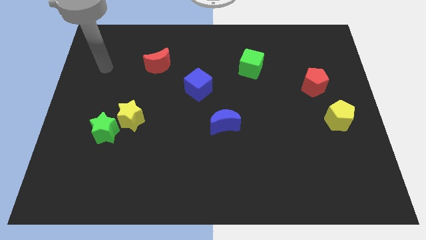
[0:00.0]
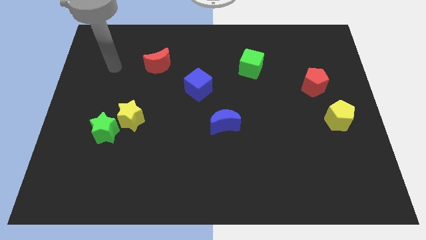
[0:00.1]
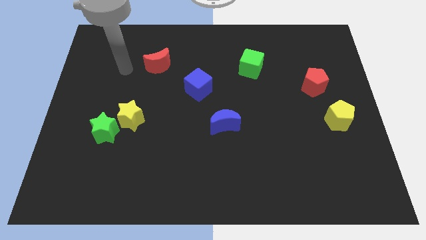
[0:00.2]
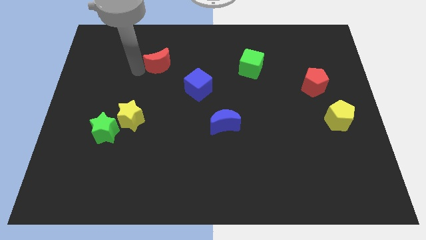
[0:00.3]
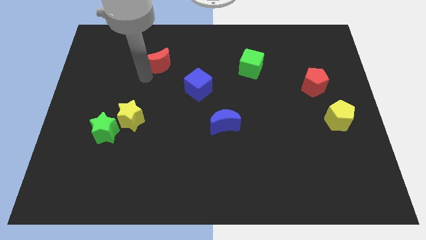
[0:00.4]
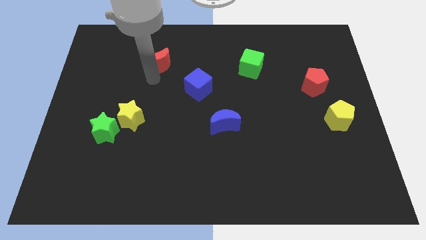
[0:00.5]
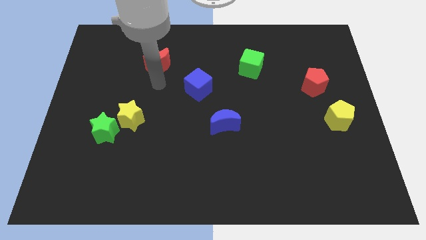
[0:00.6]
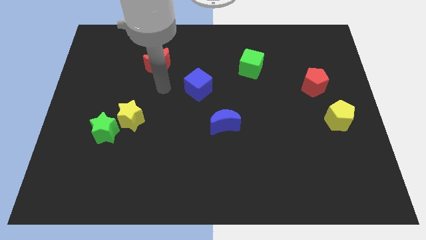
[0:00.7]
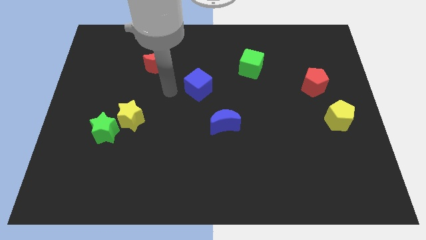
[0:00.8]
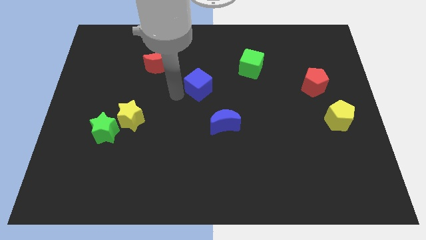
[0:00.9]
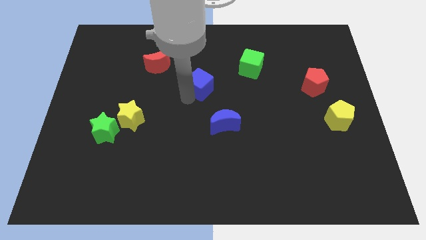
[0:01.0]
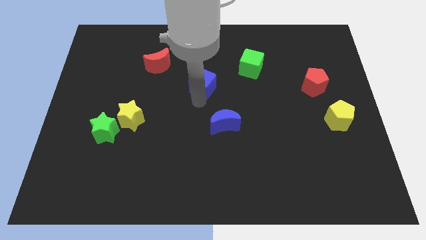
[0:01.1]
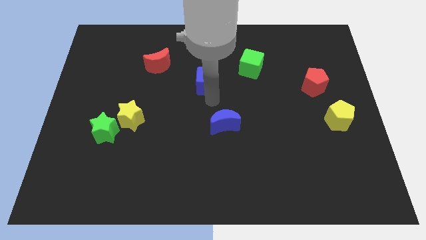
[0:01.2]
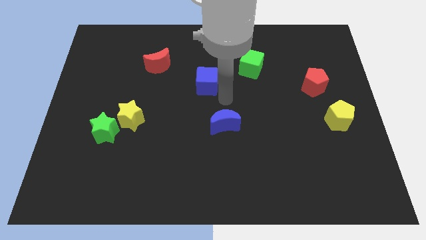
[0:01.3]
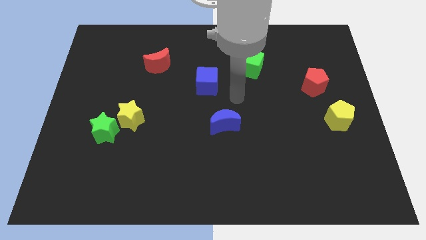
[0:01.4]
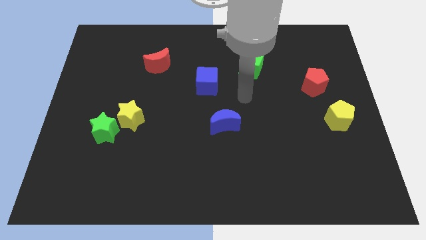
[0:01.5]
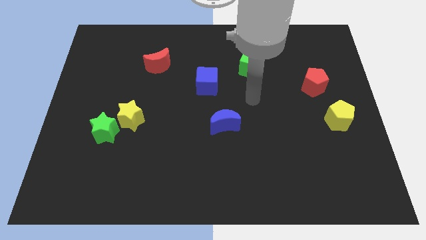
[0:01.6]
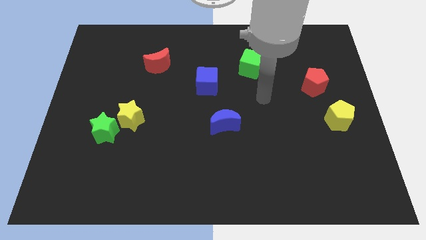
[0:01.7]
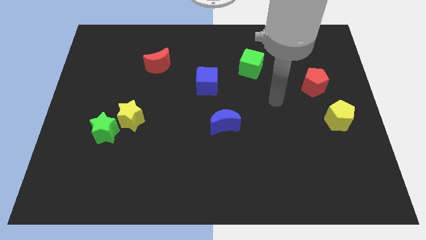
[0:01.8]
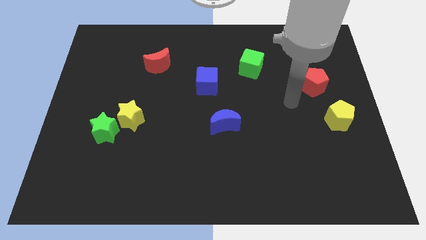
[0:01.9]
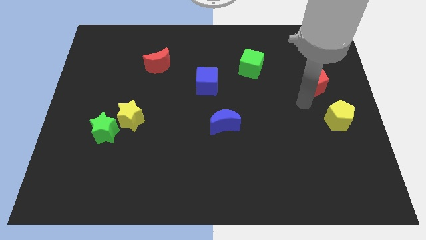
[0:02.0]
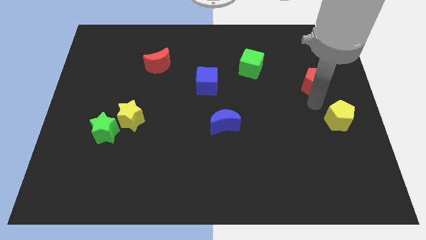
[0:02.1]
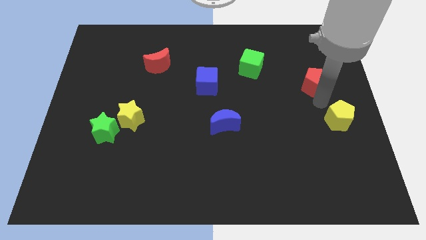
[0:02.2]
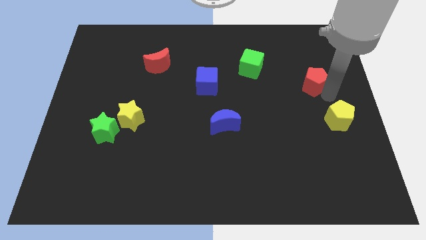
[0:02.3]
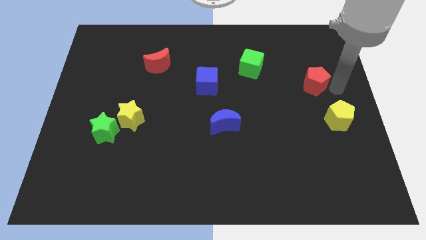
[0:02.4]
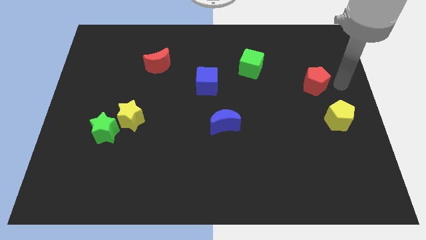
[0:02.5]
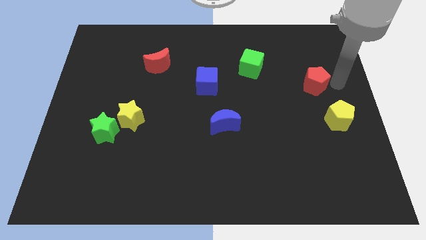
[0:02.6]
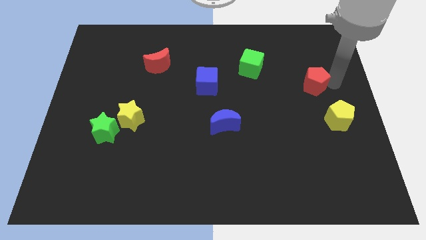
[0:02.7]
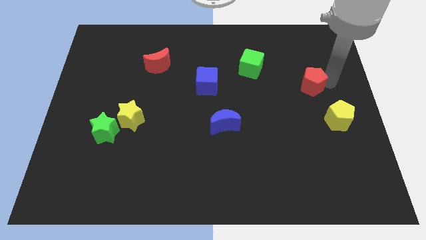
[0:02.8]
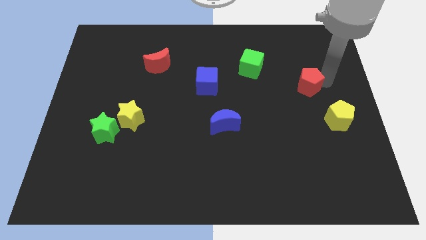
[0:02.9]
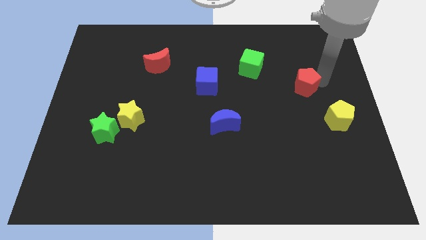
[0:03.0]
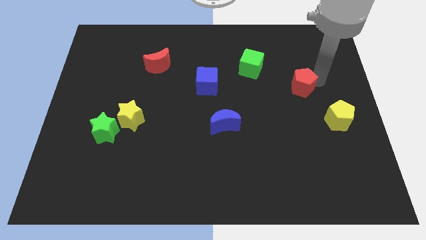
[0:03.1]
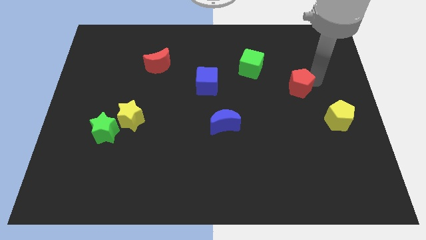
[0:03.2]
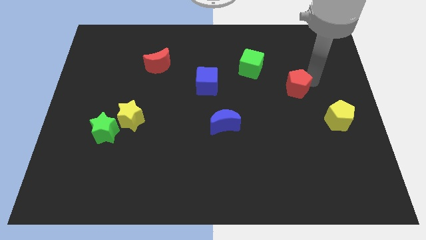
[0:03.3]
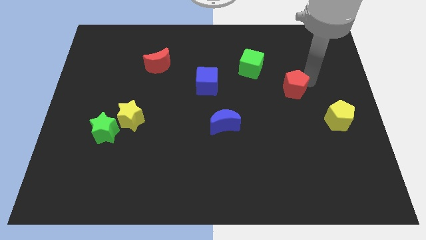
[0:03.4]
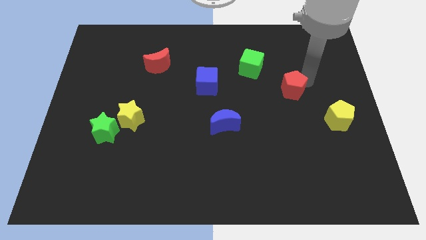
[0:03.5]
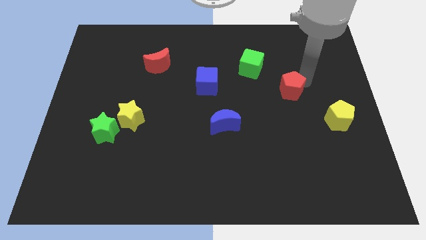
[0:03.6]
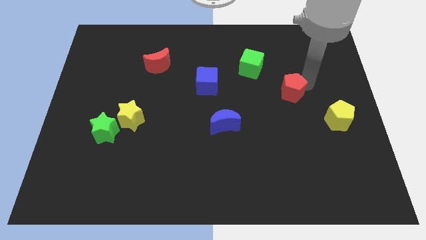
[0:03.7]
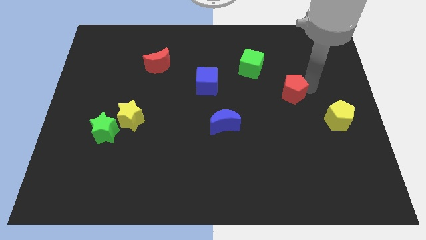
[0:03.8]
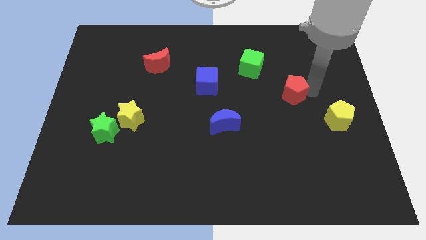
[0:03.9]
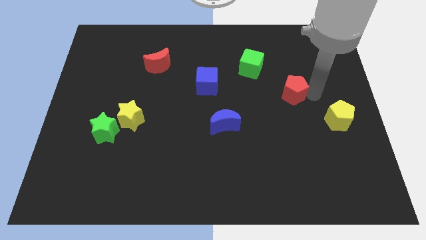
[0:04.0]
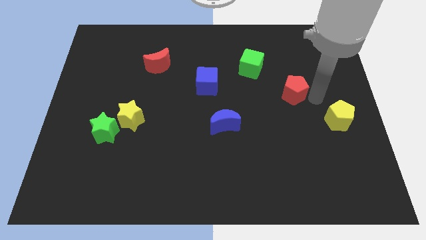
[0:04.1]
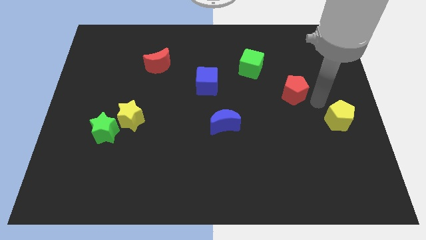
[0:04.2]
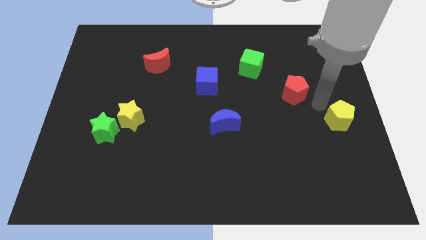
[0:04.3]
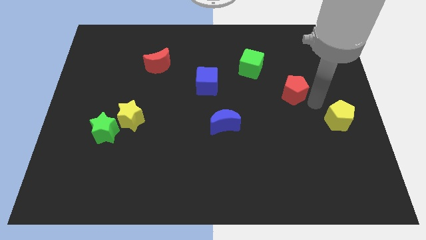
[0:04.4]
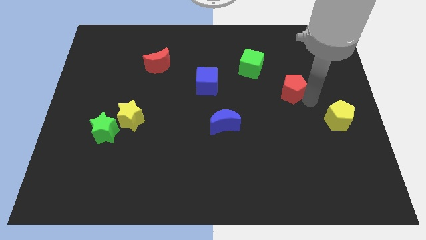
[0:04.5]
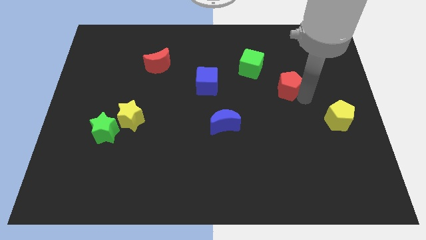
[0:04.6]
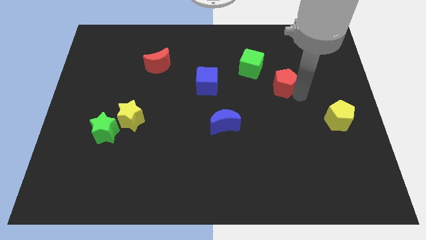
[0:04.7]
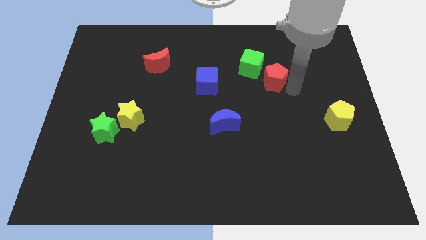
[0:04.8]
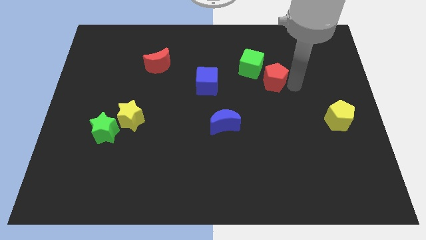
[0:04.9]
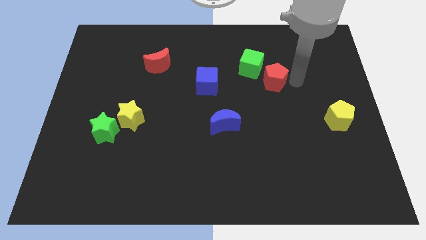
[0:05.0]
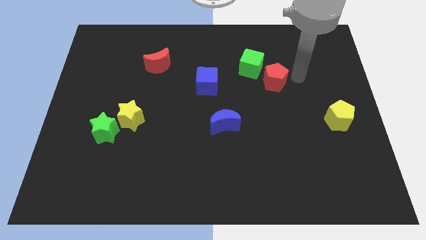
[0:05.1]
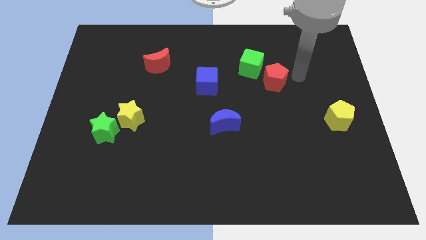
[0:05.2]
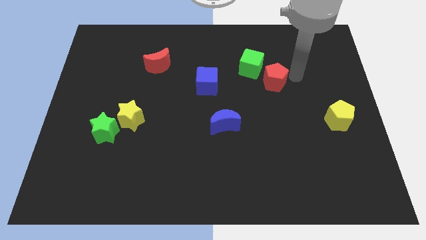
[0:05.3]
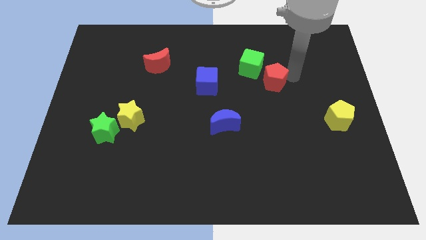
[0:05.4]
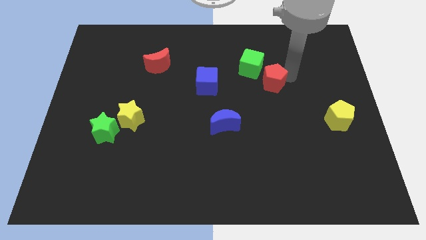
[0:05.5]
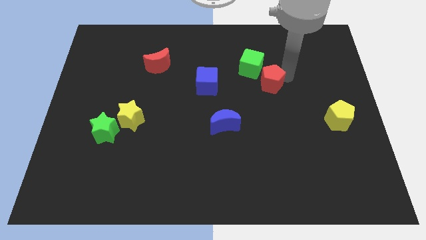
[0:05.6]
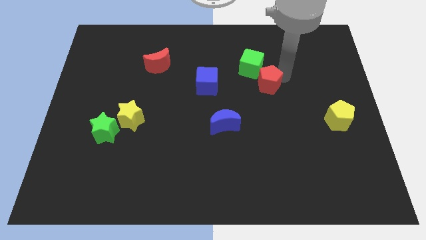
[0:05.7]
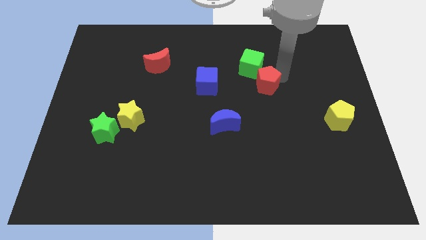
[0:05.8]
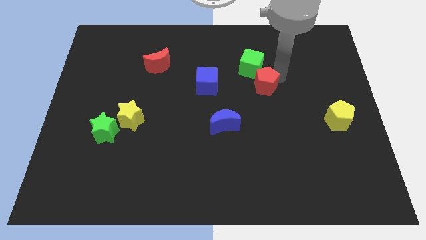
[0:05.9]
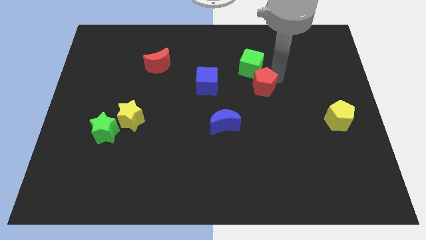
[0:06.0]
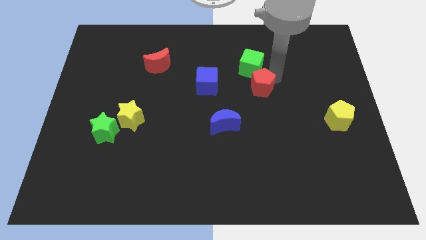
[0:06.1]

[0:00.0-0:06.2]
put the red pentagon to the center

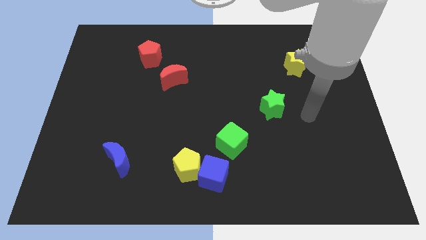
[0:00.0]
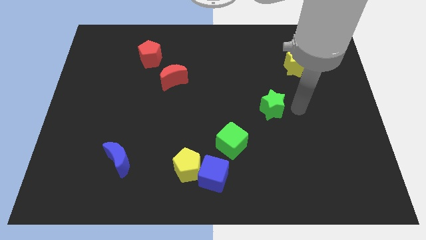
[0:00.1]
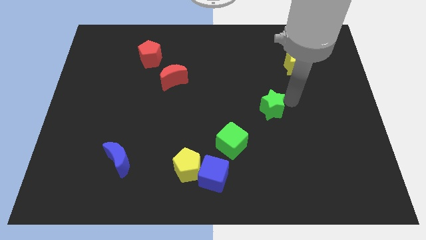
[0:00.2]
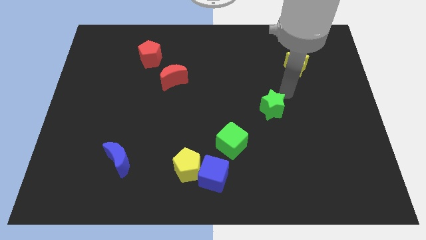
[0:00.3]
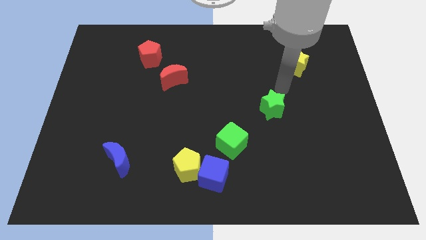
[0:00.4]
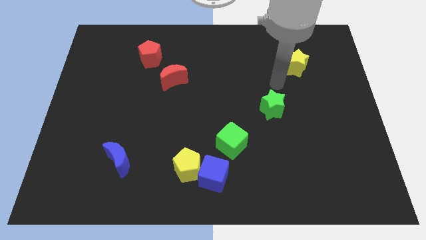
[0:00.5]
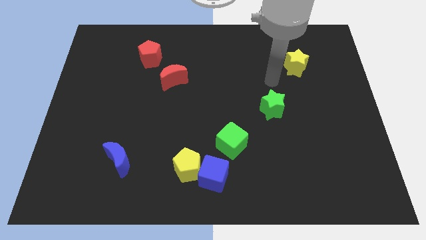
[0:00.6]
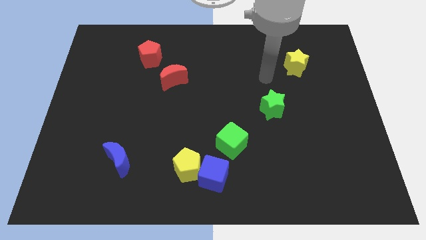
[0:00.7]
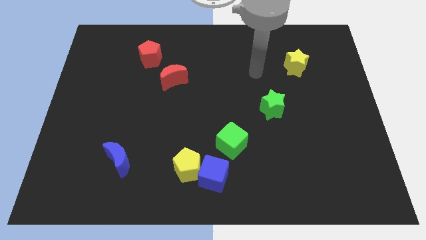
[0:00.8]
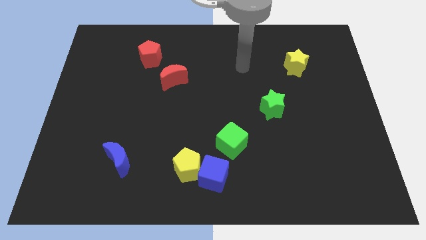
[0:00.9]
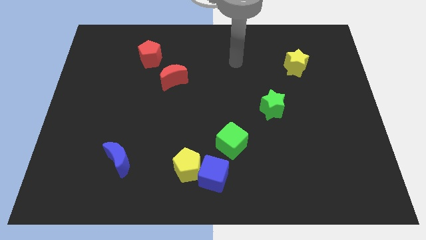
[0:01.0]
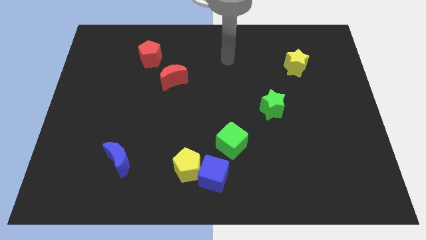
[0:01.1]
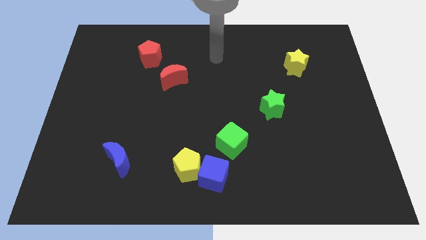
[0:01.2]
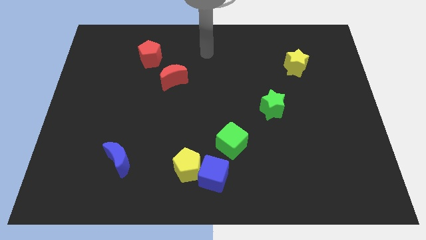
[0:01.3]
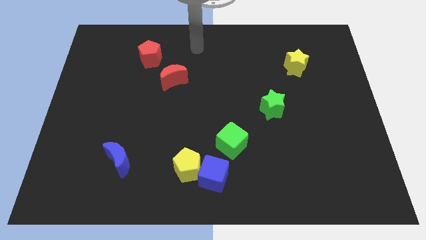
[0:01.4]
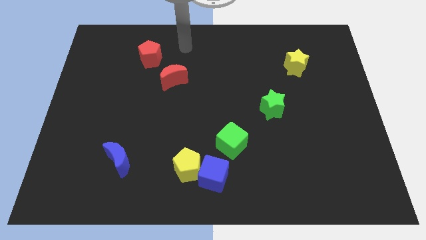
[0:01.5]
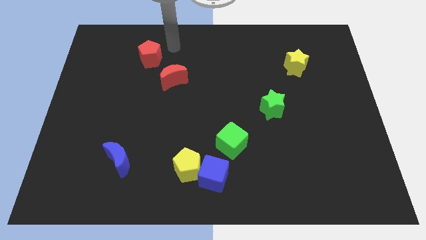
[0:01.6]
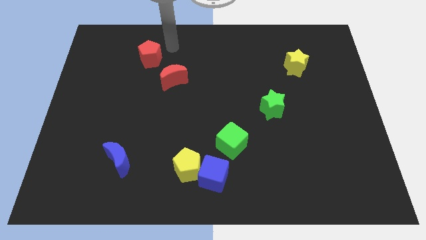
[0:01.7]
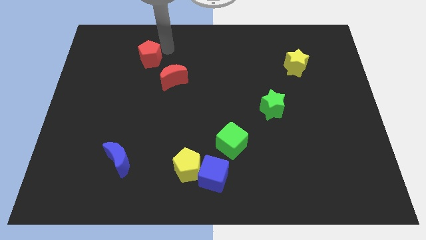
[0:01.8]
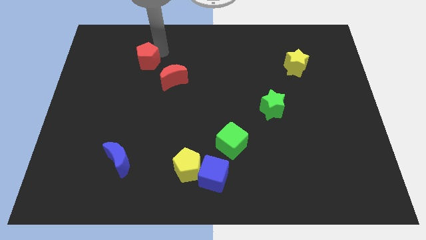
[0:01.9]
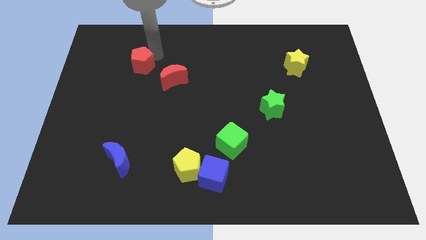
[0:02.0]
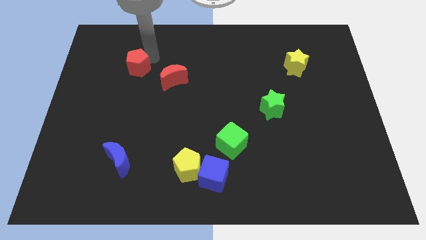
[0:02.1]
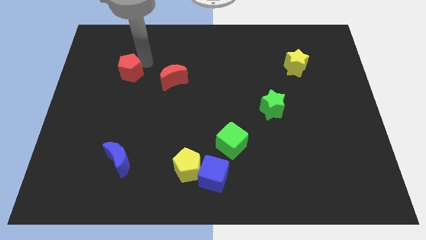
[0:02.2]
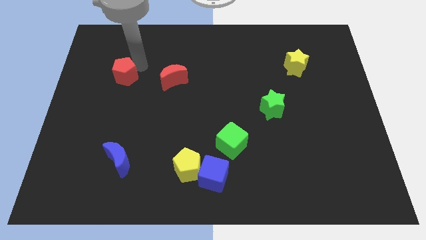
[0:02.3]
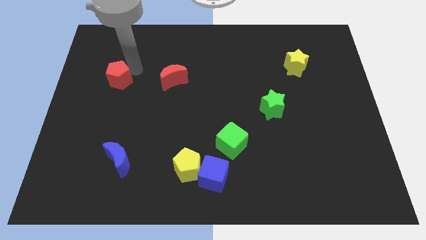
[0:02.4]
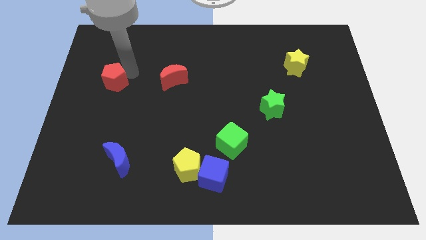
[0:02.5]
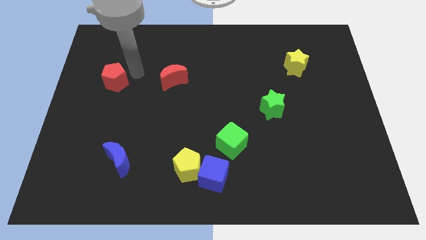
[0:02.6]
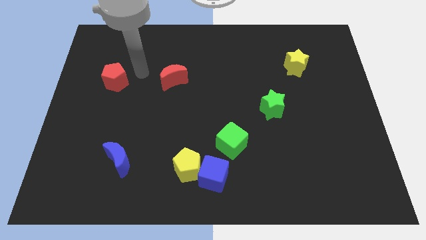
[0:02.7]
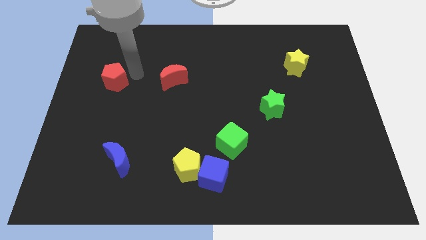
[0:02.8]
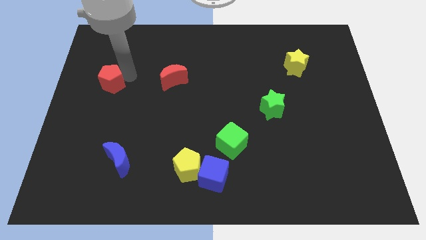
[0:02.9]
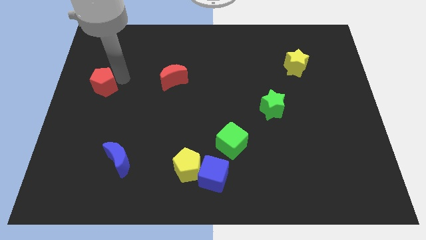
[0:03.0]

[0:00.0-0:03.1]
put the red pentagon to the left side of the board
